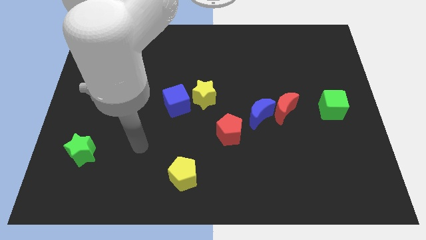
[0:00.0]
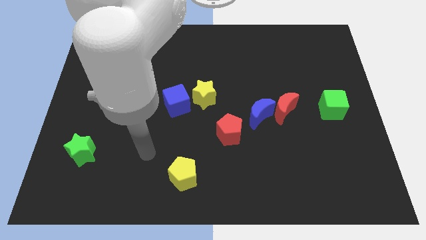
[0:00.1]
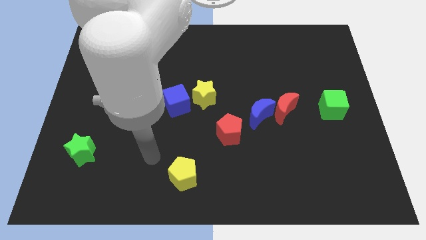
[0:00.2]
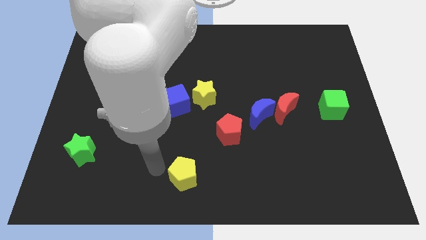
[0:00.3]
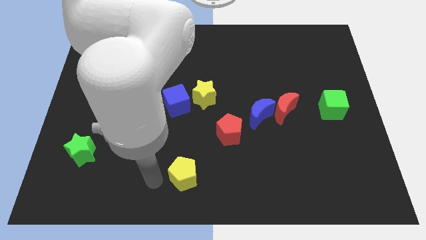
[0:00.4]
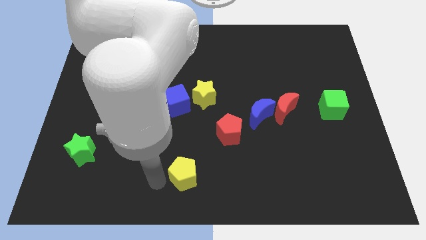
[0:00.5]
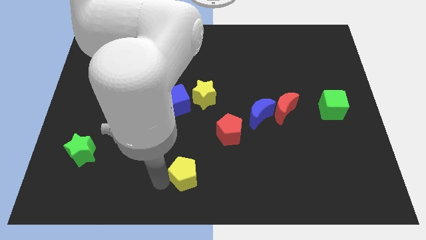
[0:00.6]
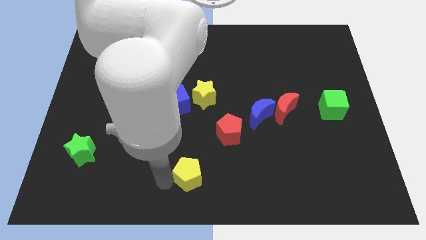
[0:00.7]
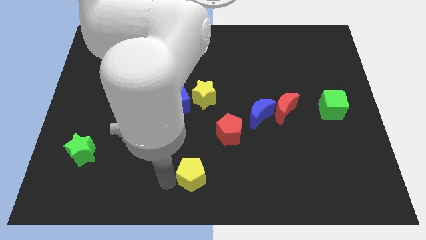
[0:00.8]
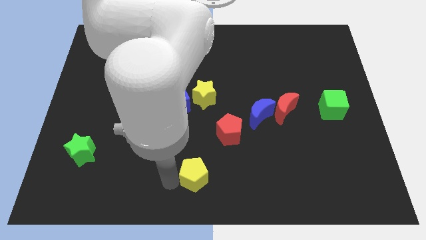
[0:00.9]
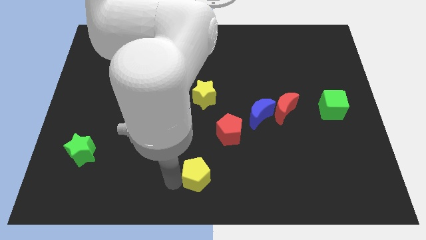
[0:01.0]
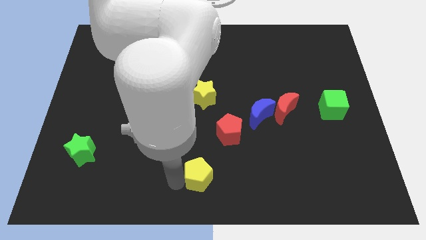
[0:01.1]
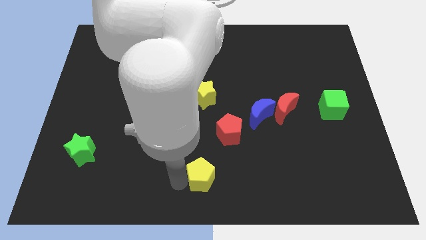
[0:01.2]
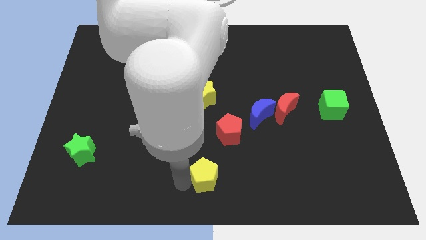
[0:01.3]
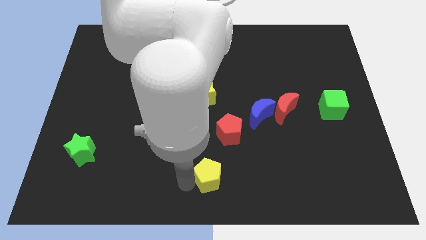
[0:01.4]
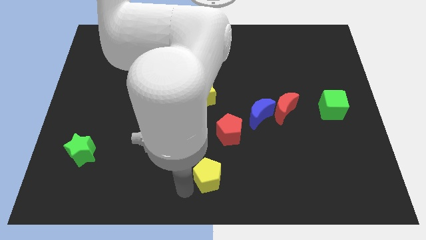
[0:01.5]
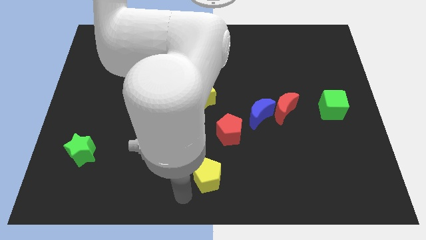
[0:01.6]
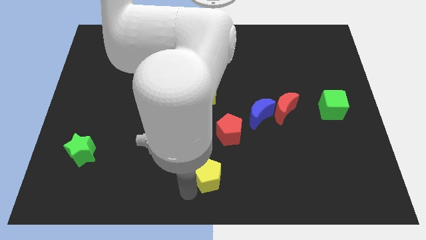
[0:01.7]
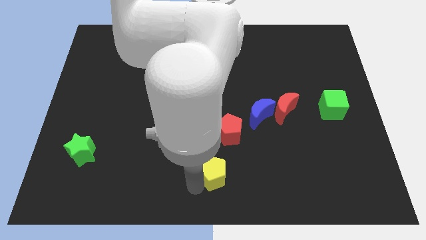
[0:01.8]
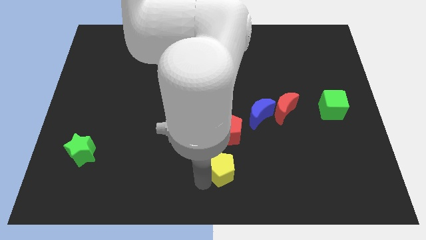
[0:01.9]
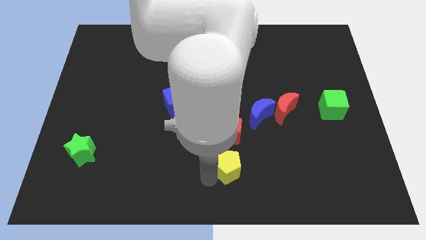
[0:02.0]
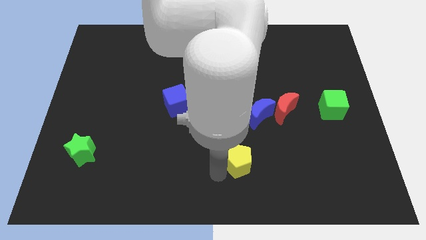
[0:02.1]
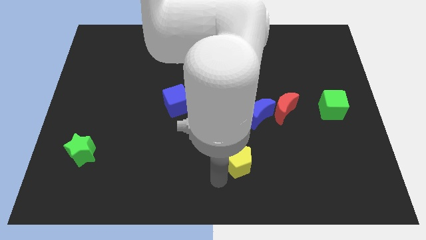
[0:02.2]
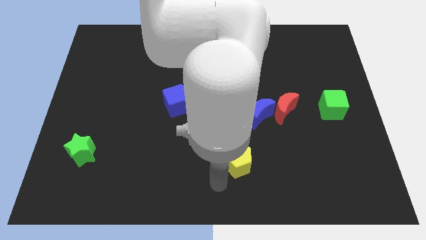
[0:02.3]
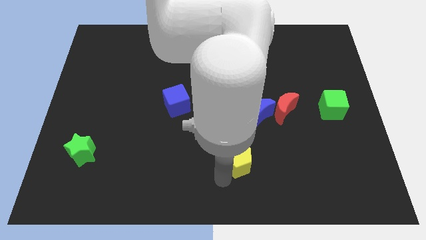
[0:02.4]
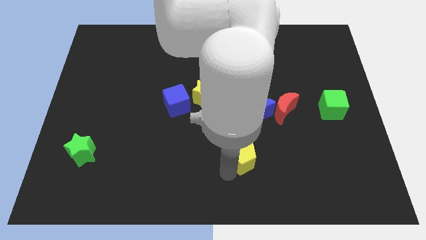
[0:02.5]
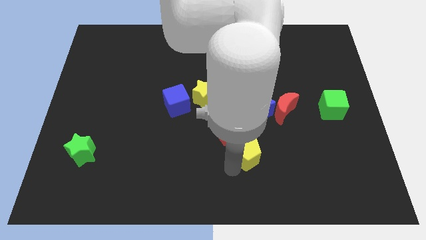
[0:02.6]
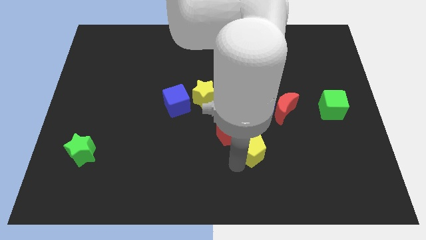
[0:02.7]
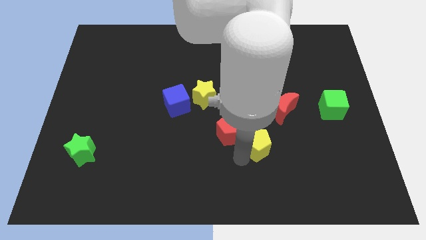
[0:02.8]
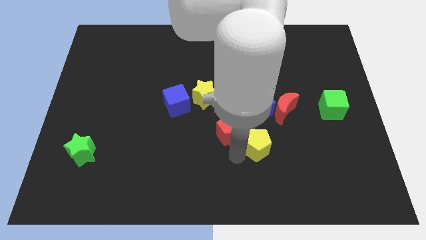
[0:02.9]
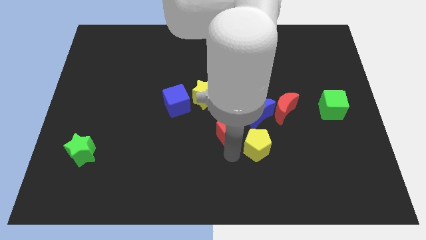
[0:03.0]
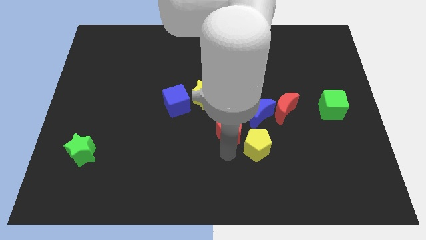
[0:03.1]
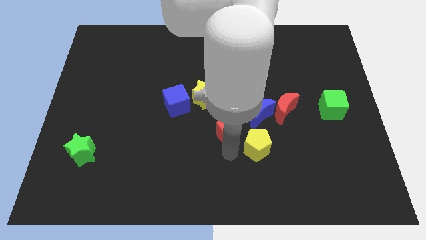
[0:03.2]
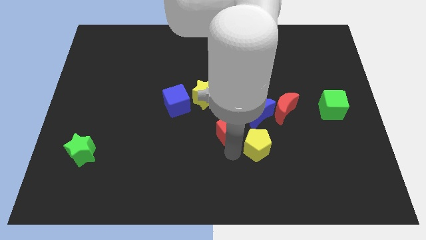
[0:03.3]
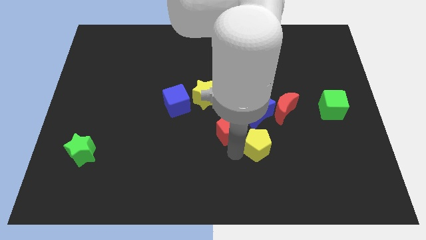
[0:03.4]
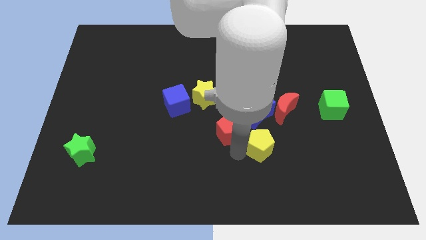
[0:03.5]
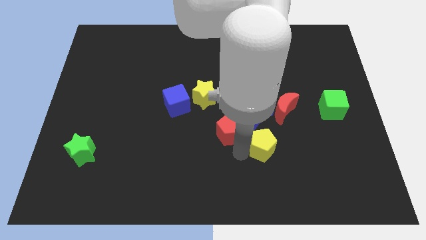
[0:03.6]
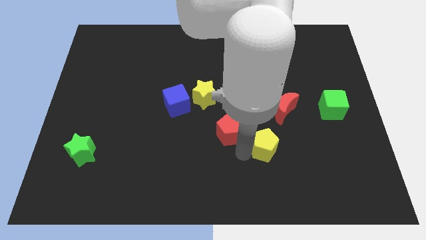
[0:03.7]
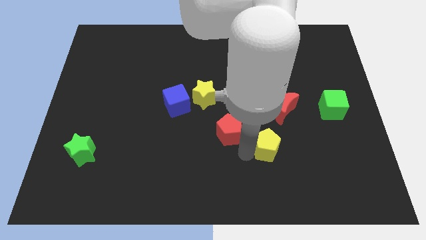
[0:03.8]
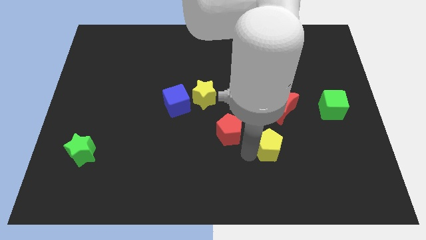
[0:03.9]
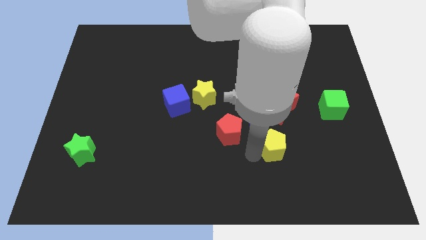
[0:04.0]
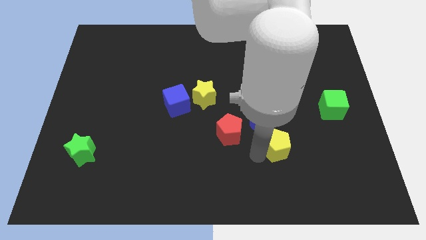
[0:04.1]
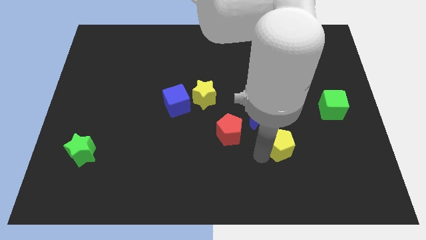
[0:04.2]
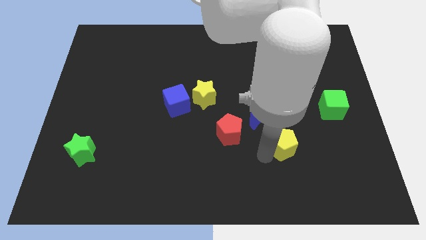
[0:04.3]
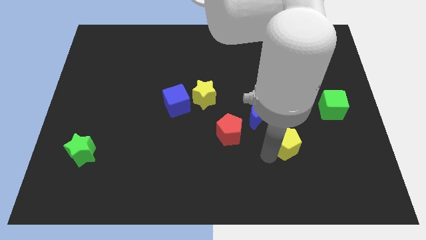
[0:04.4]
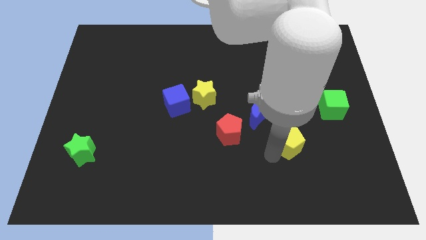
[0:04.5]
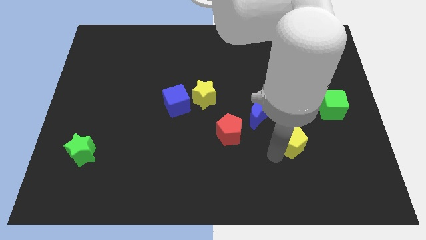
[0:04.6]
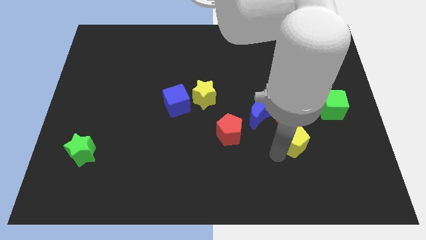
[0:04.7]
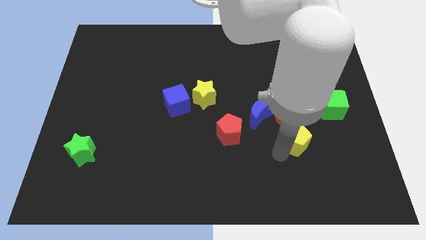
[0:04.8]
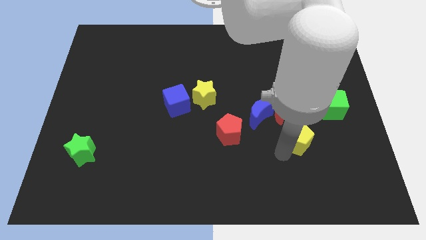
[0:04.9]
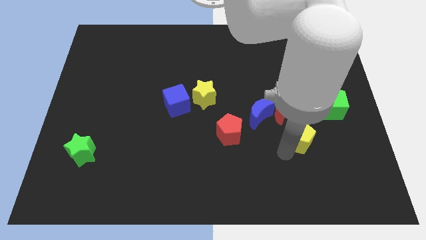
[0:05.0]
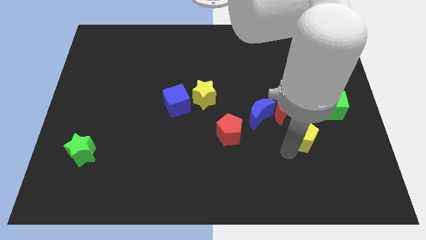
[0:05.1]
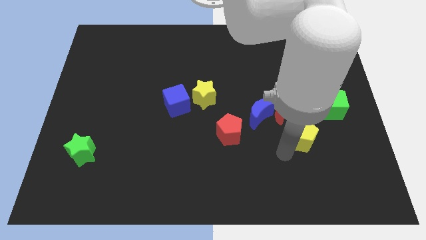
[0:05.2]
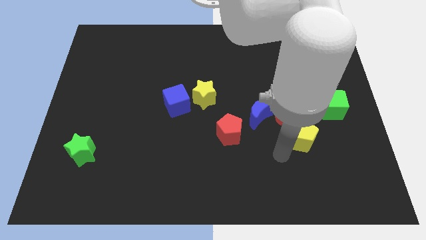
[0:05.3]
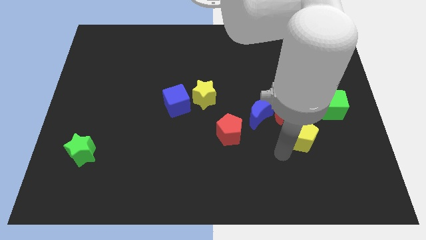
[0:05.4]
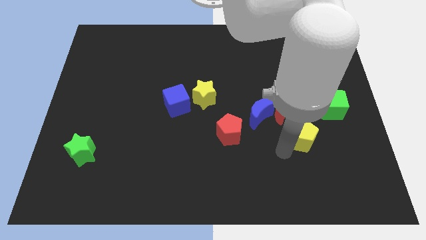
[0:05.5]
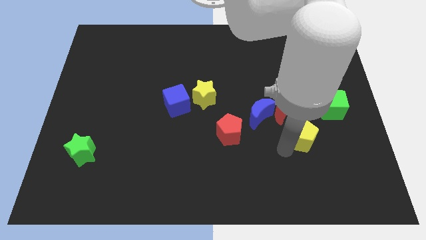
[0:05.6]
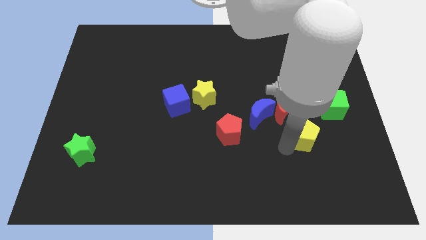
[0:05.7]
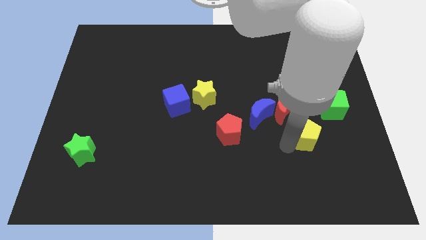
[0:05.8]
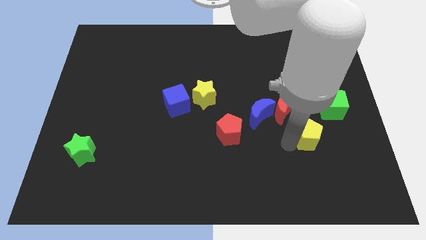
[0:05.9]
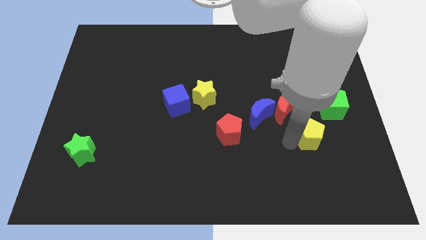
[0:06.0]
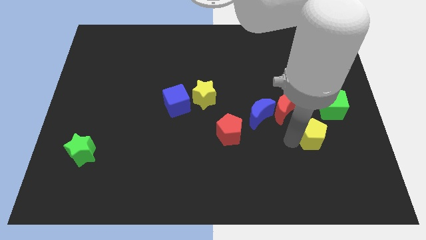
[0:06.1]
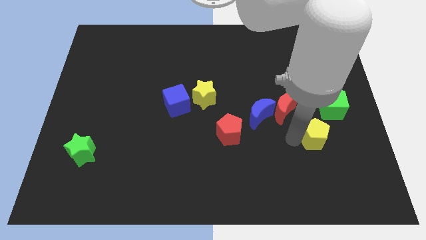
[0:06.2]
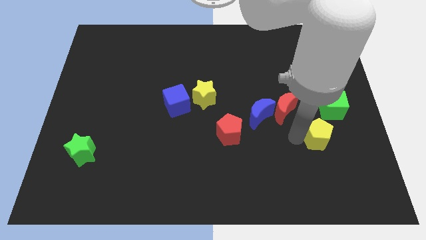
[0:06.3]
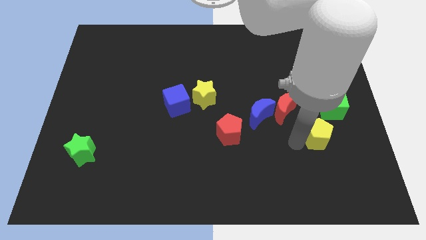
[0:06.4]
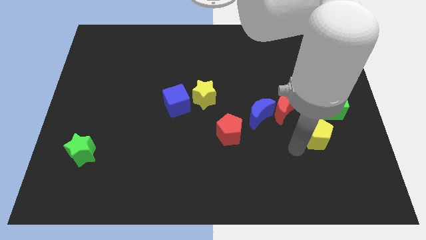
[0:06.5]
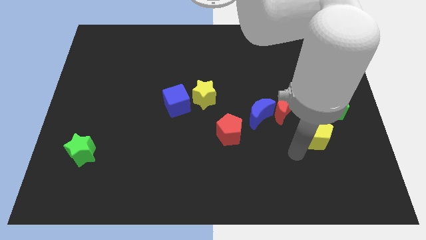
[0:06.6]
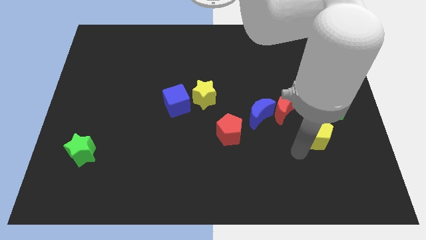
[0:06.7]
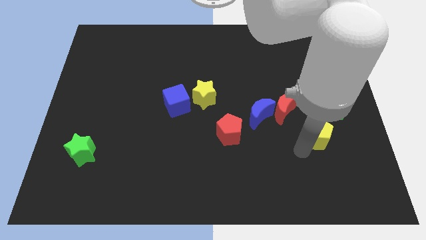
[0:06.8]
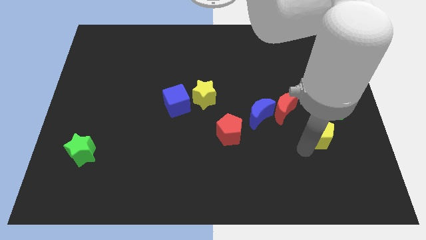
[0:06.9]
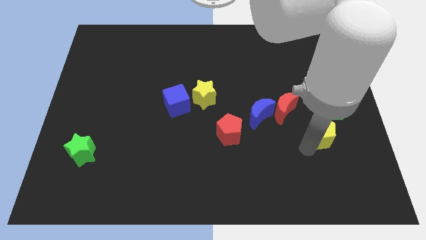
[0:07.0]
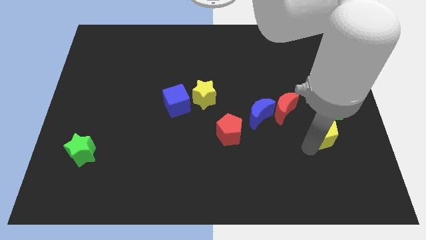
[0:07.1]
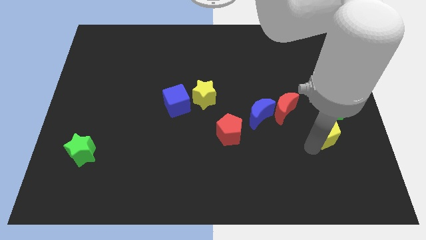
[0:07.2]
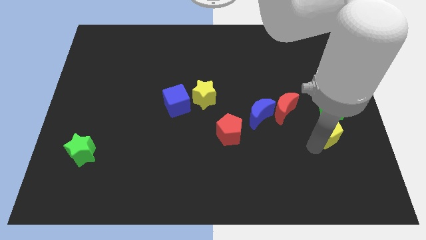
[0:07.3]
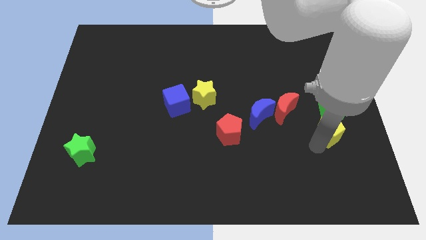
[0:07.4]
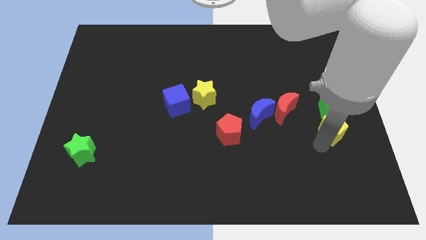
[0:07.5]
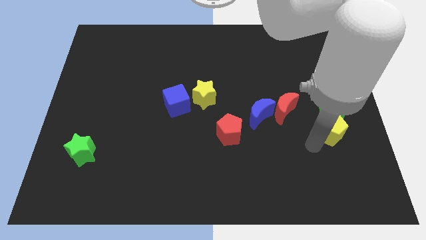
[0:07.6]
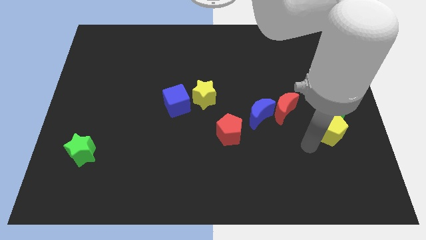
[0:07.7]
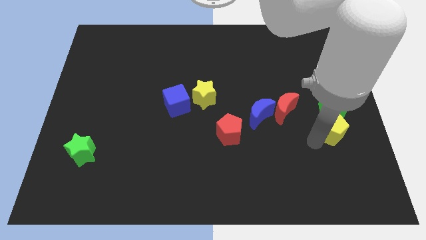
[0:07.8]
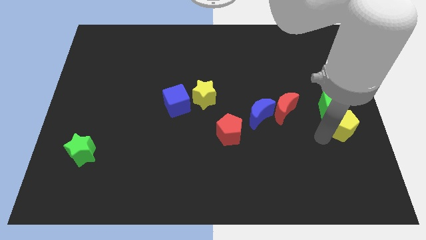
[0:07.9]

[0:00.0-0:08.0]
move the yellow pentagon to the right side
